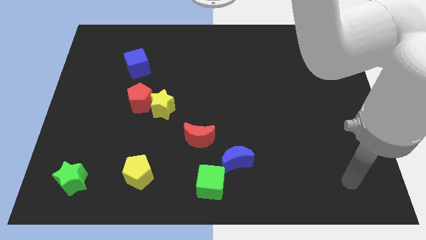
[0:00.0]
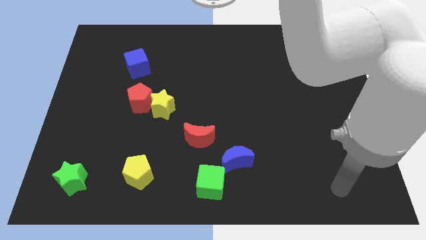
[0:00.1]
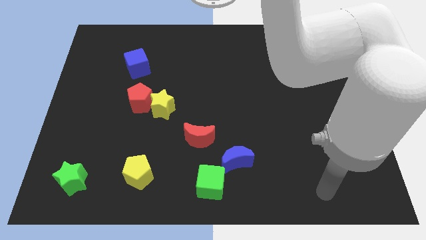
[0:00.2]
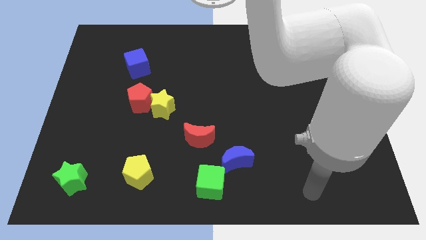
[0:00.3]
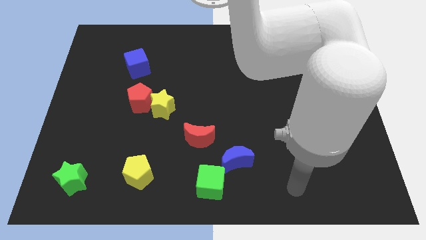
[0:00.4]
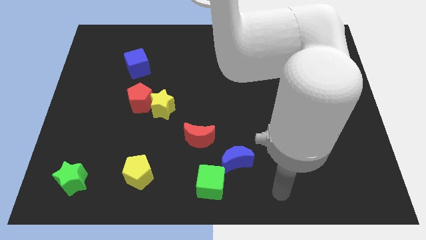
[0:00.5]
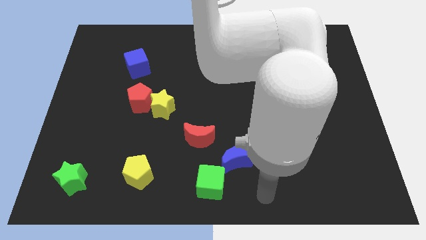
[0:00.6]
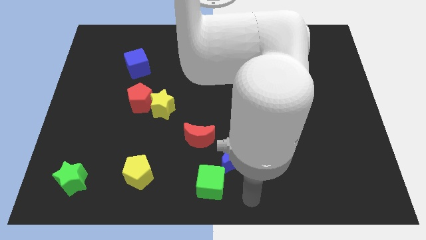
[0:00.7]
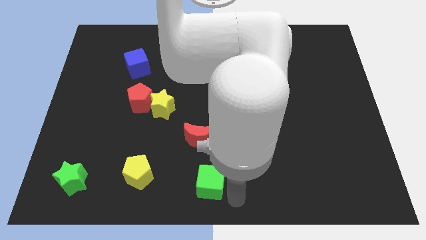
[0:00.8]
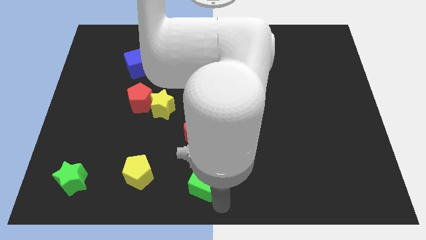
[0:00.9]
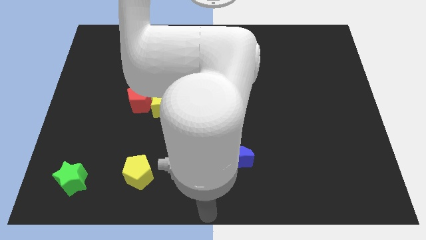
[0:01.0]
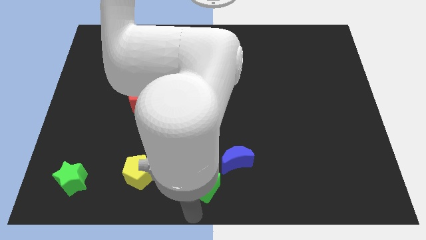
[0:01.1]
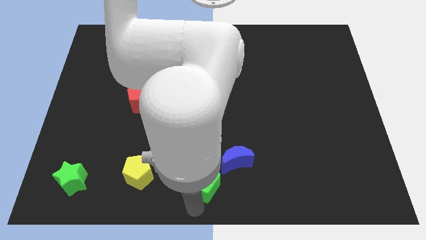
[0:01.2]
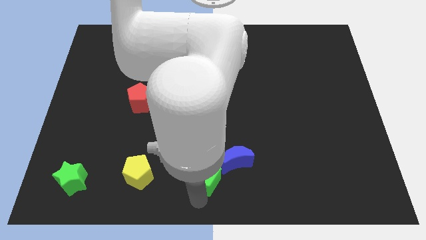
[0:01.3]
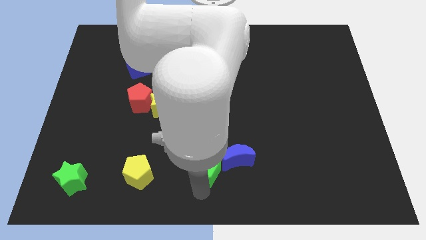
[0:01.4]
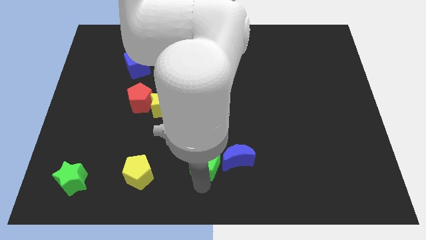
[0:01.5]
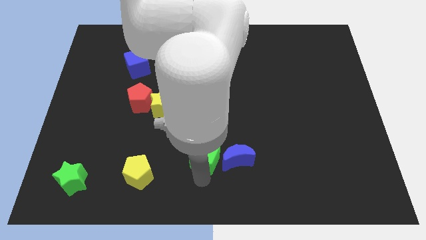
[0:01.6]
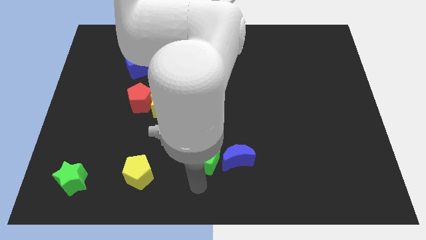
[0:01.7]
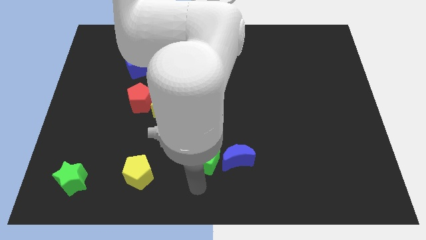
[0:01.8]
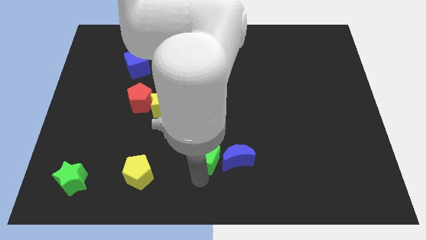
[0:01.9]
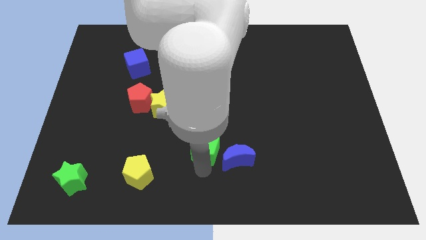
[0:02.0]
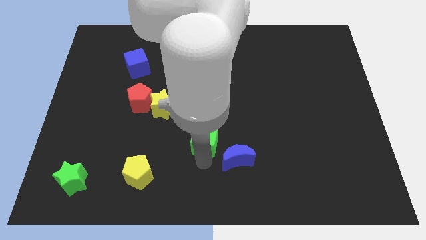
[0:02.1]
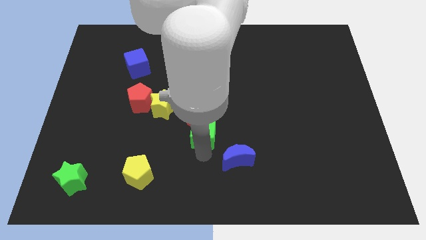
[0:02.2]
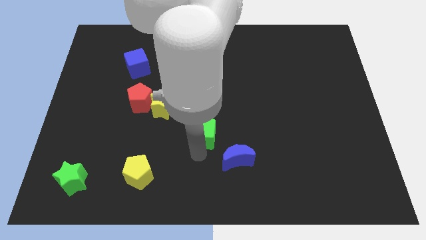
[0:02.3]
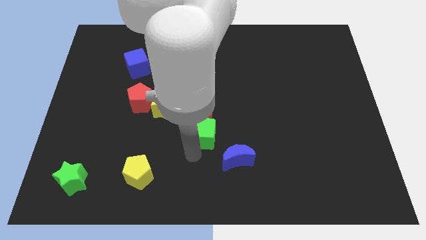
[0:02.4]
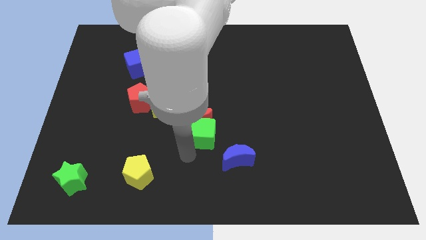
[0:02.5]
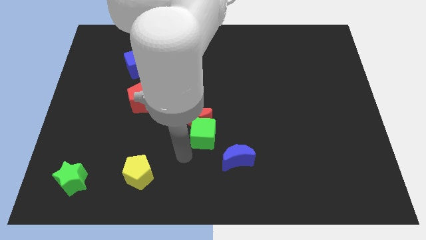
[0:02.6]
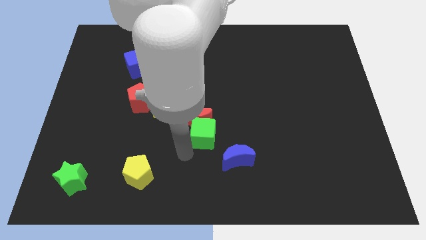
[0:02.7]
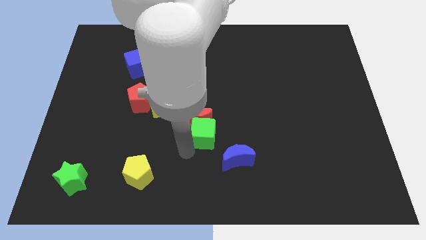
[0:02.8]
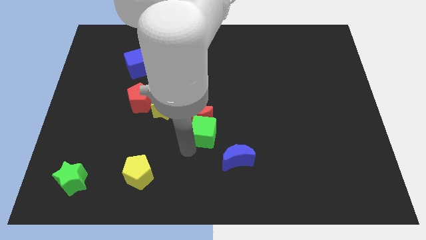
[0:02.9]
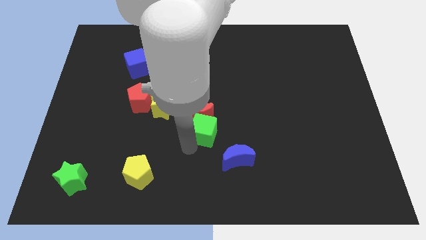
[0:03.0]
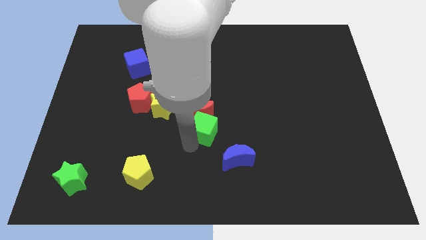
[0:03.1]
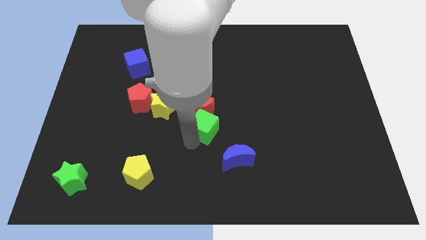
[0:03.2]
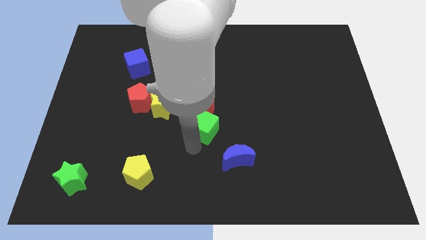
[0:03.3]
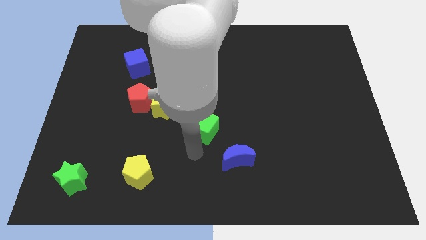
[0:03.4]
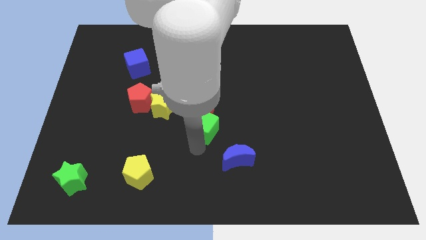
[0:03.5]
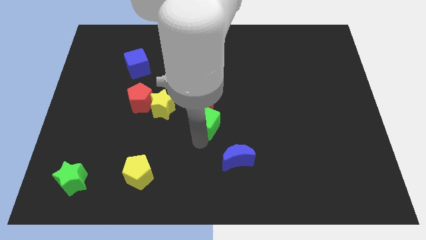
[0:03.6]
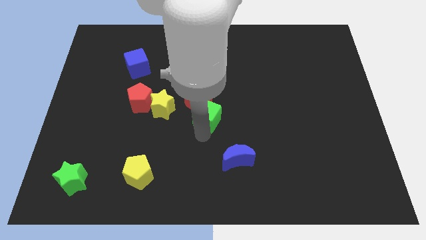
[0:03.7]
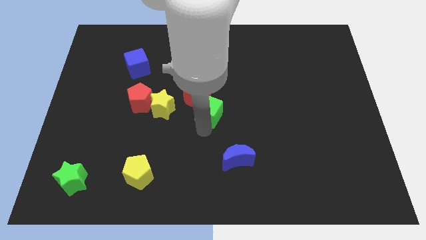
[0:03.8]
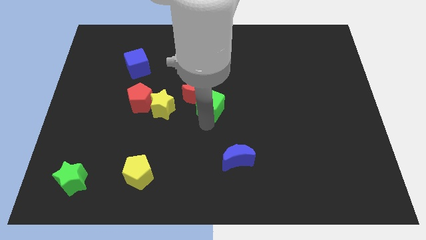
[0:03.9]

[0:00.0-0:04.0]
move the green cube up

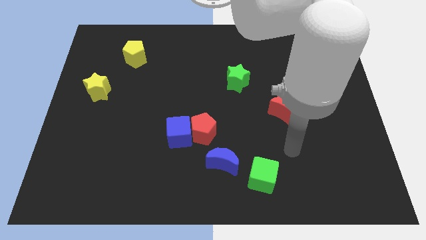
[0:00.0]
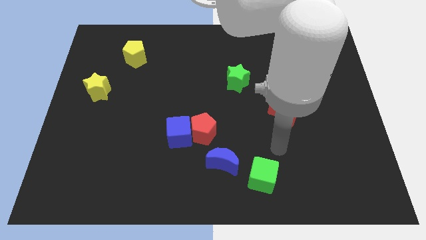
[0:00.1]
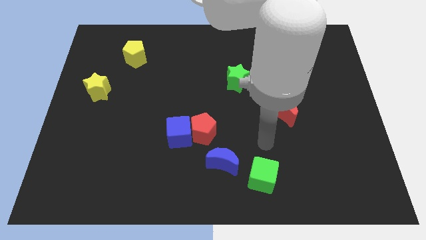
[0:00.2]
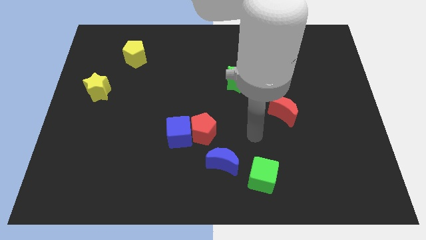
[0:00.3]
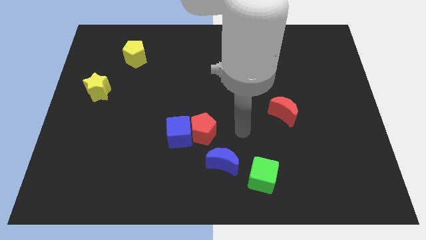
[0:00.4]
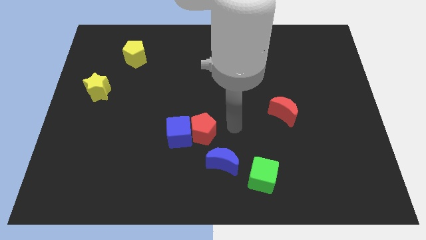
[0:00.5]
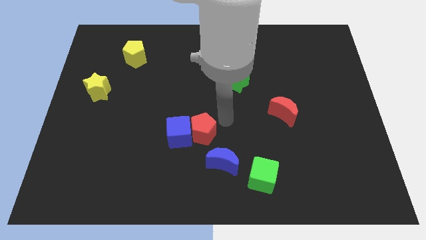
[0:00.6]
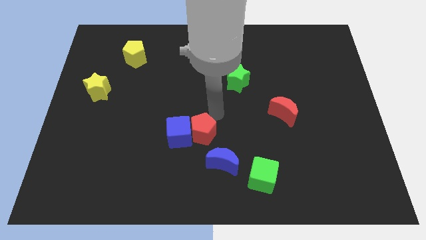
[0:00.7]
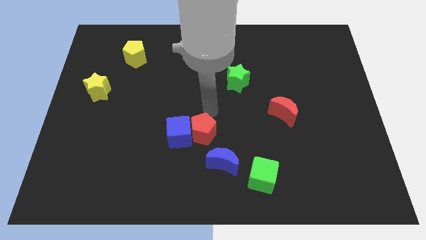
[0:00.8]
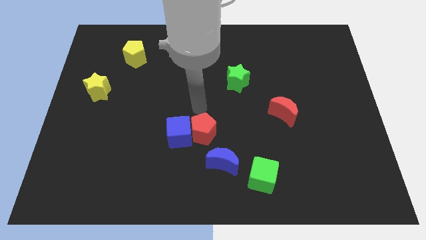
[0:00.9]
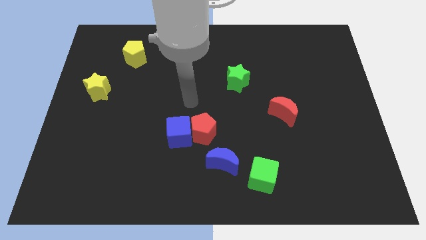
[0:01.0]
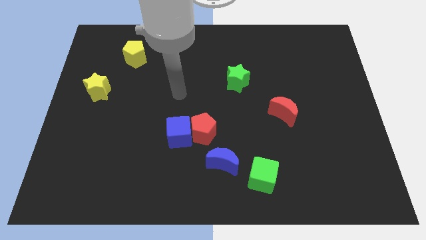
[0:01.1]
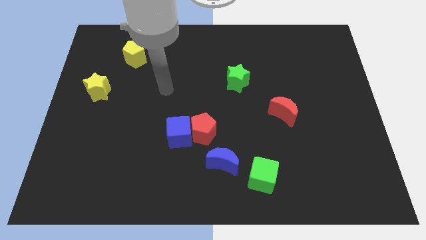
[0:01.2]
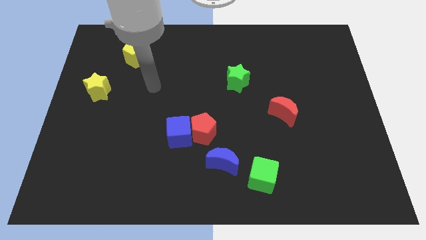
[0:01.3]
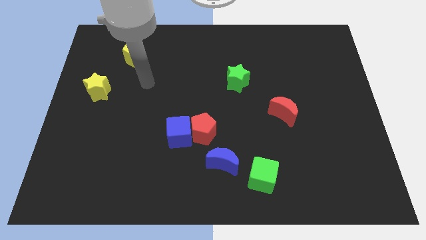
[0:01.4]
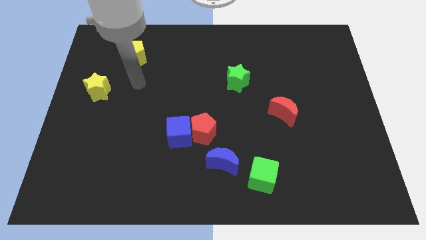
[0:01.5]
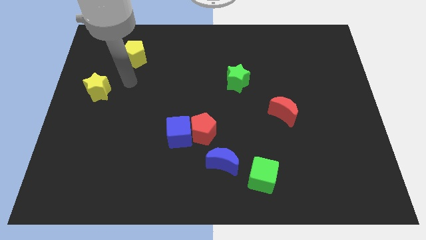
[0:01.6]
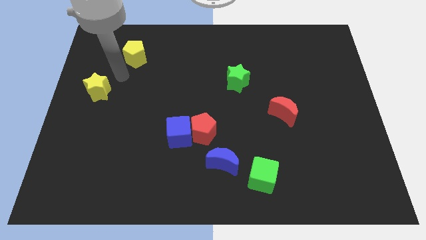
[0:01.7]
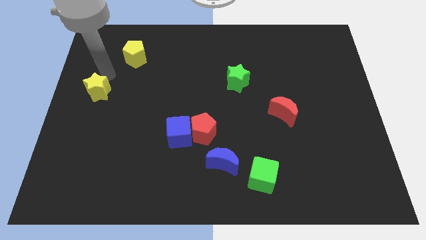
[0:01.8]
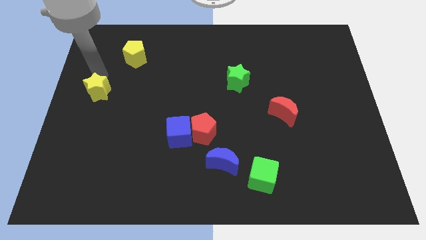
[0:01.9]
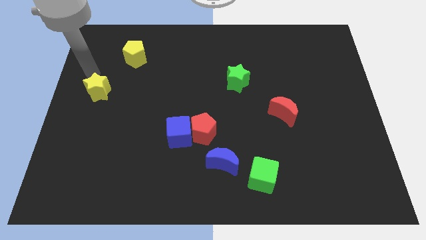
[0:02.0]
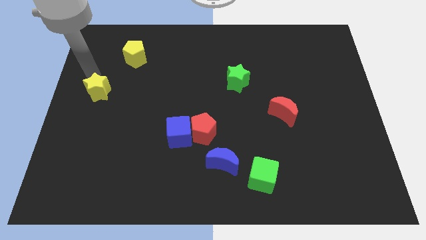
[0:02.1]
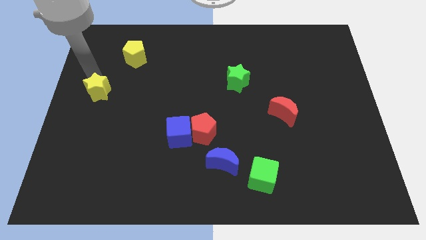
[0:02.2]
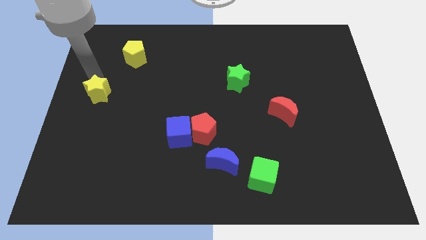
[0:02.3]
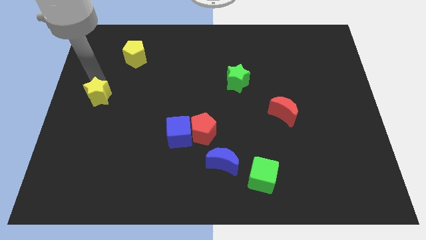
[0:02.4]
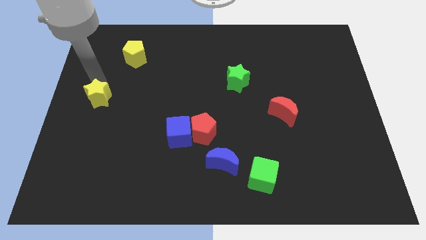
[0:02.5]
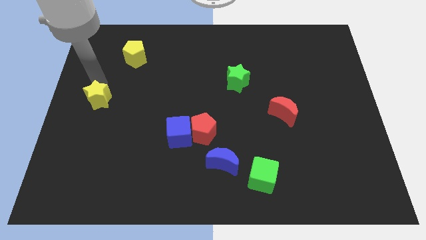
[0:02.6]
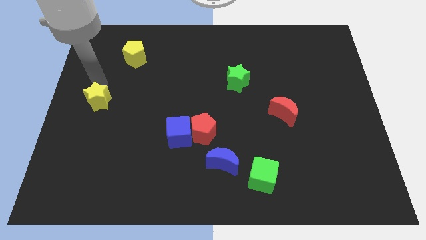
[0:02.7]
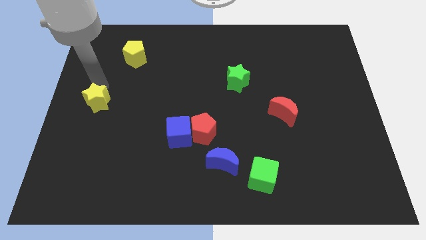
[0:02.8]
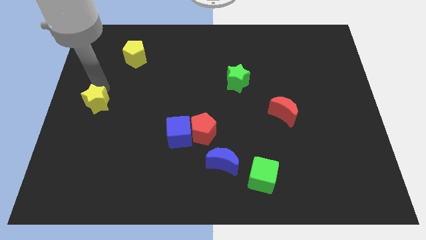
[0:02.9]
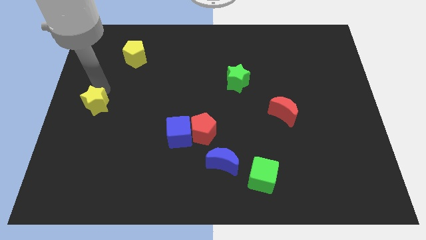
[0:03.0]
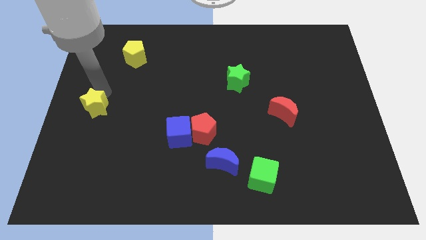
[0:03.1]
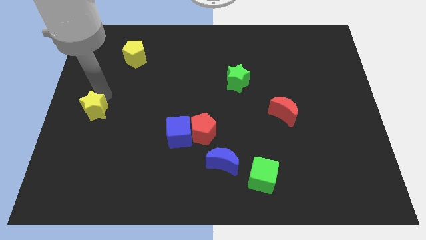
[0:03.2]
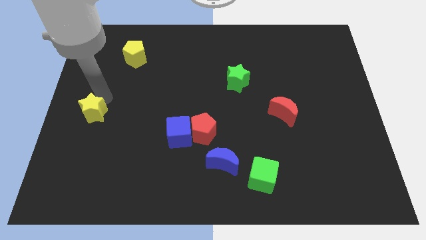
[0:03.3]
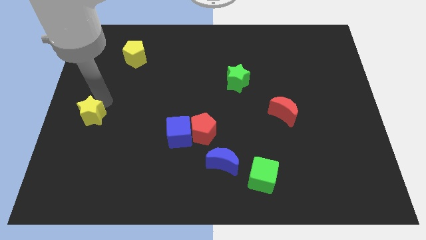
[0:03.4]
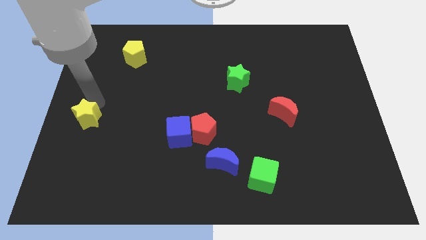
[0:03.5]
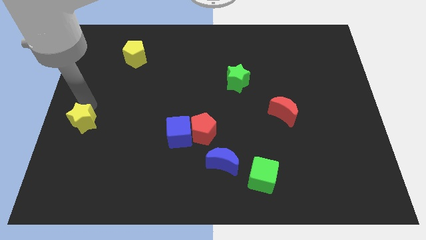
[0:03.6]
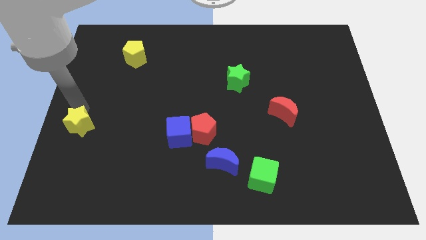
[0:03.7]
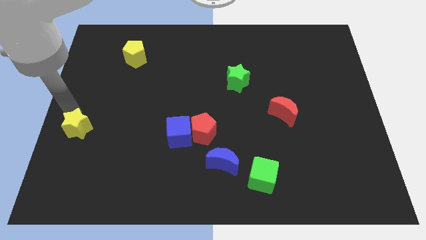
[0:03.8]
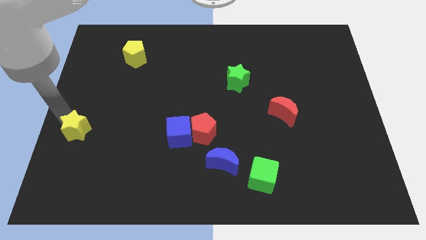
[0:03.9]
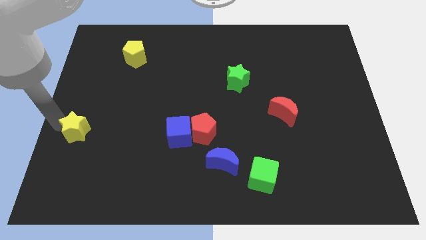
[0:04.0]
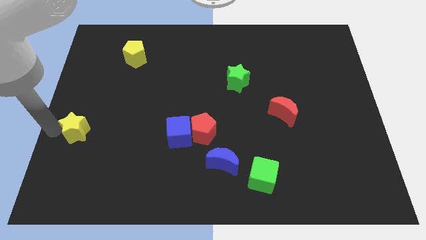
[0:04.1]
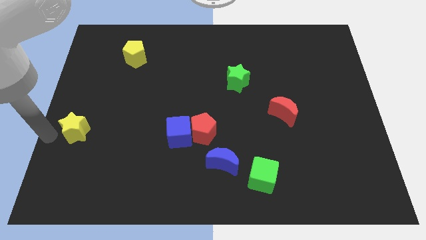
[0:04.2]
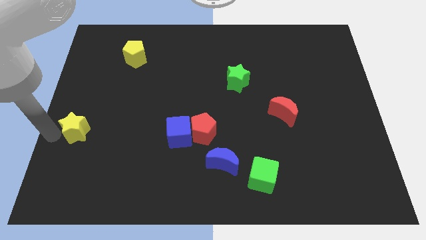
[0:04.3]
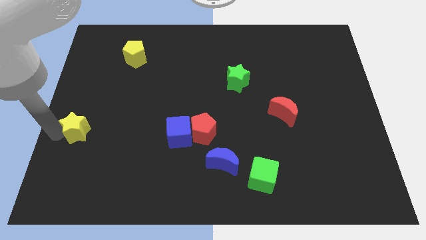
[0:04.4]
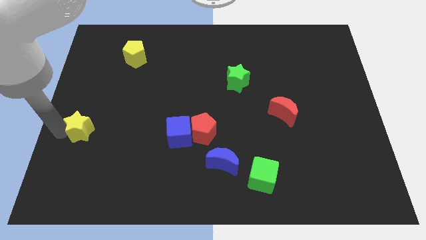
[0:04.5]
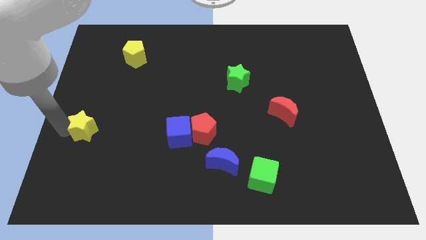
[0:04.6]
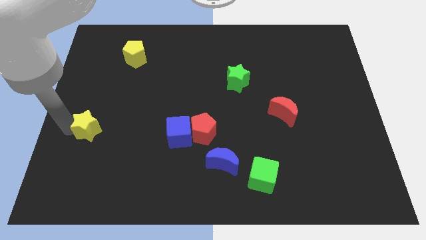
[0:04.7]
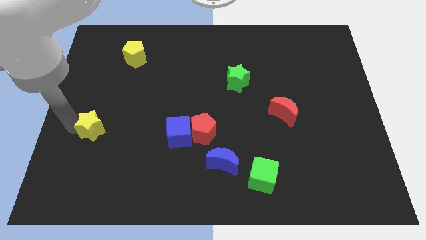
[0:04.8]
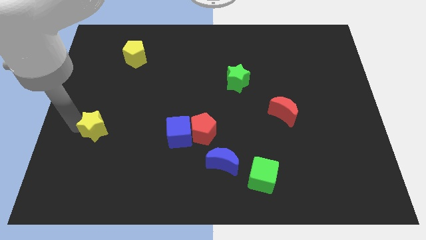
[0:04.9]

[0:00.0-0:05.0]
slide the yellow star somewhat diagonally down and right
